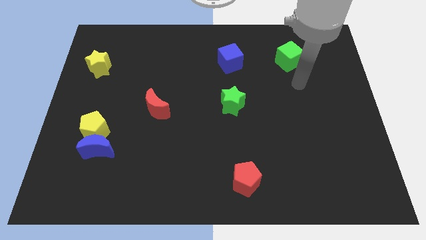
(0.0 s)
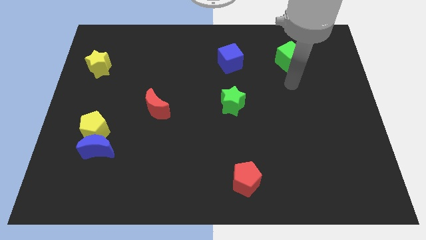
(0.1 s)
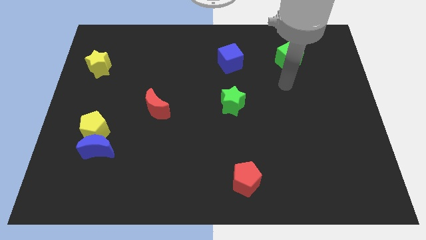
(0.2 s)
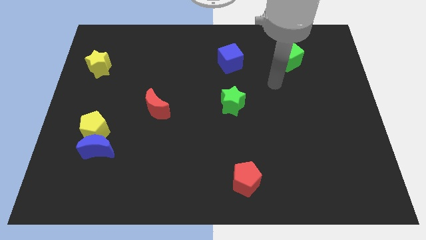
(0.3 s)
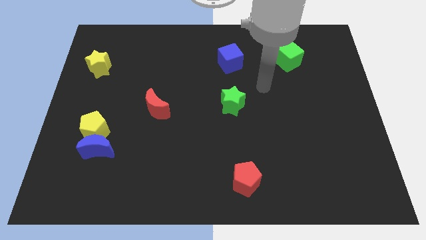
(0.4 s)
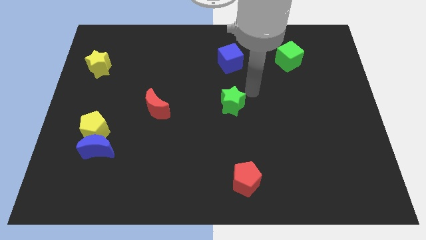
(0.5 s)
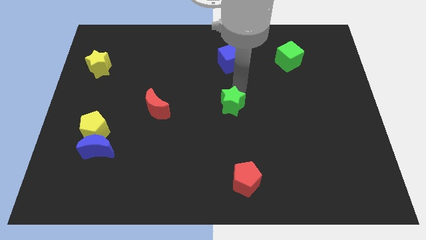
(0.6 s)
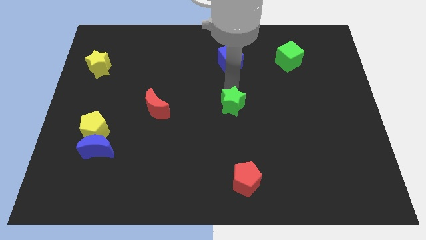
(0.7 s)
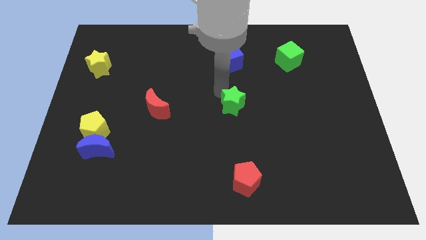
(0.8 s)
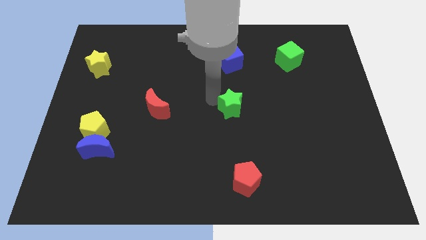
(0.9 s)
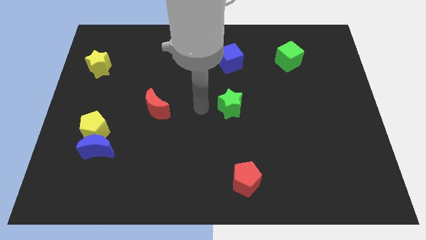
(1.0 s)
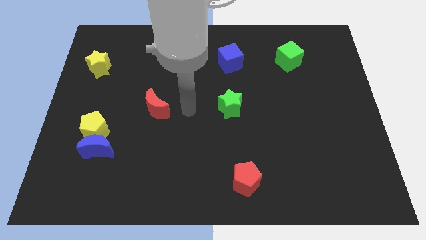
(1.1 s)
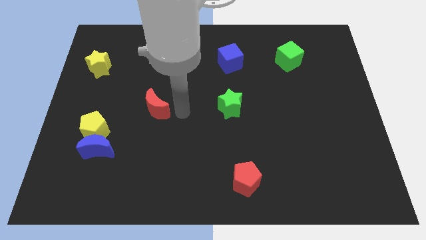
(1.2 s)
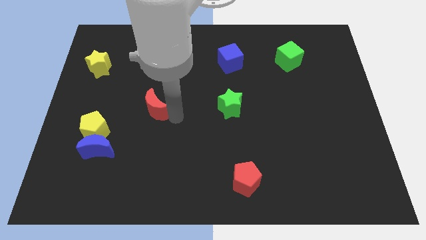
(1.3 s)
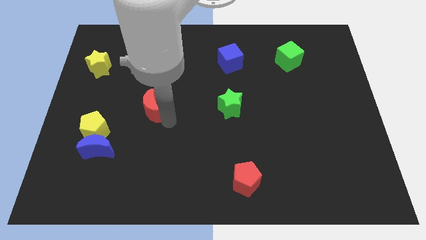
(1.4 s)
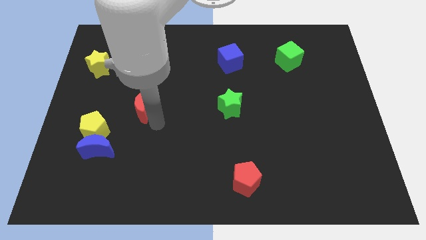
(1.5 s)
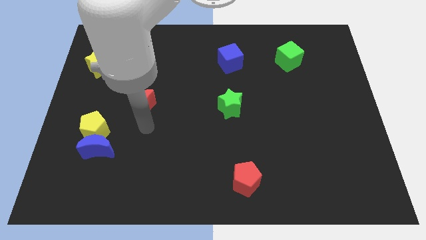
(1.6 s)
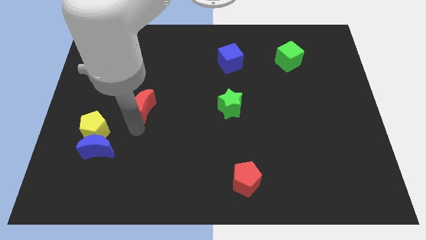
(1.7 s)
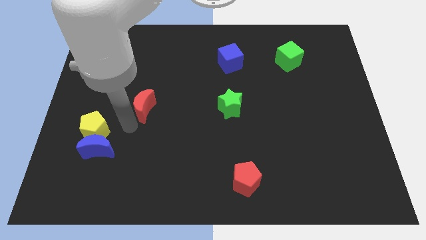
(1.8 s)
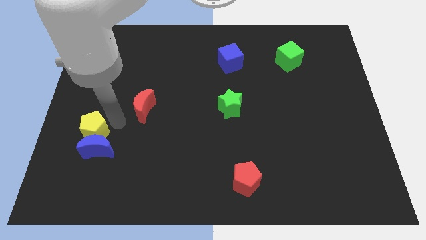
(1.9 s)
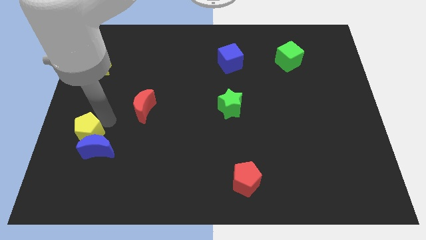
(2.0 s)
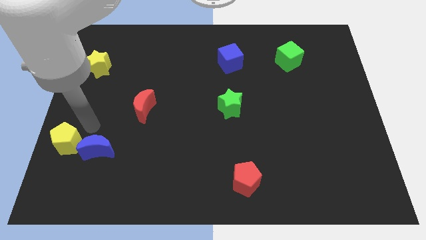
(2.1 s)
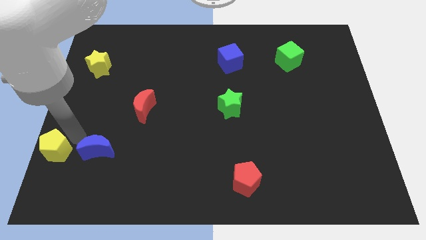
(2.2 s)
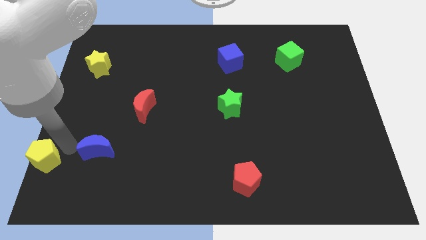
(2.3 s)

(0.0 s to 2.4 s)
pull the blue moon apart from the yellow pentagon

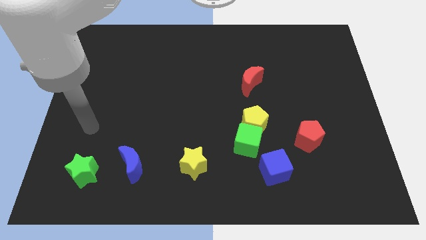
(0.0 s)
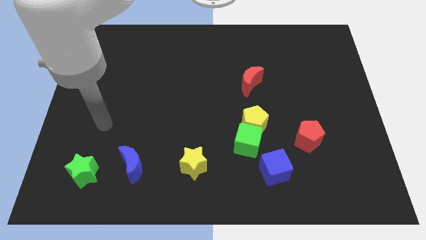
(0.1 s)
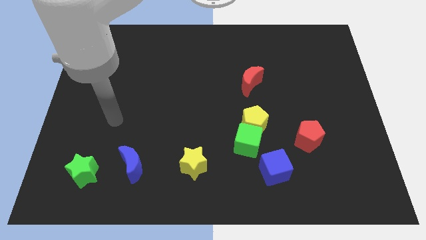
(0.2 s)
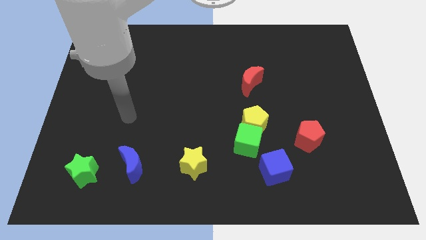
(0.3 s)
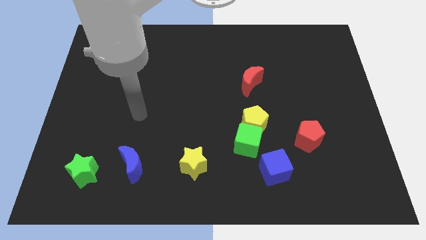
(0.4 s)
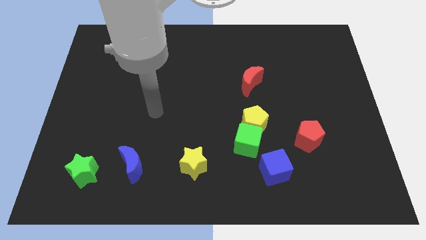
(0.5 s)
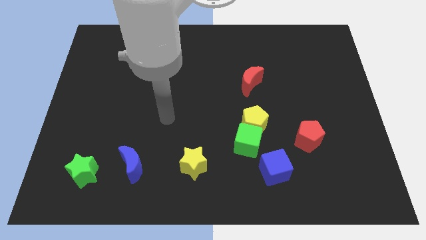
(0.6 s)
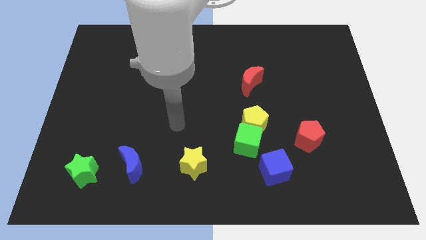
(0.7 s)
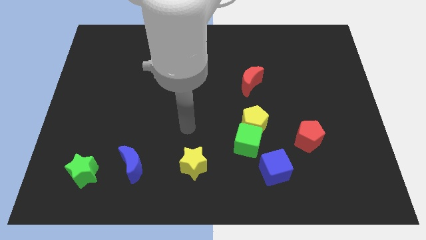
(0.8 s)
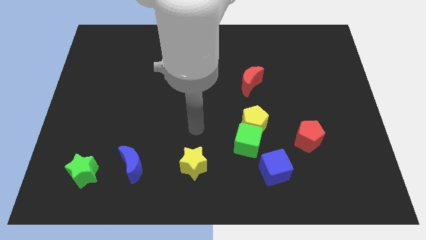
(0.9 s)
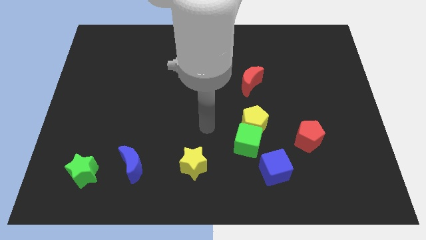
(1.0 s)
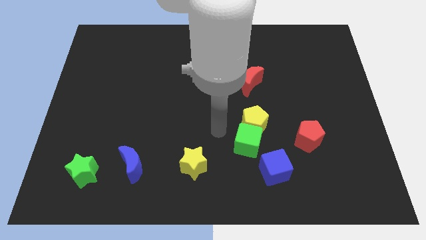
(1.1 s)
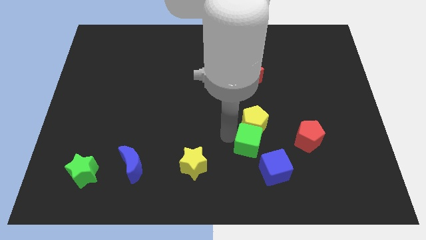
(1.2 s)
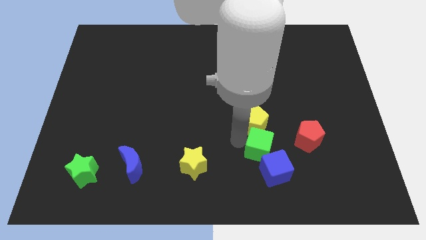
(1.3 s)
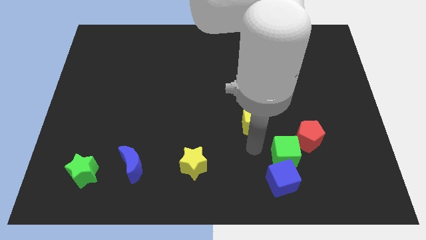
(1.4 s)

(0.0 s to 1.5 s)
pull the yellow pentagon apart from the green cube

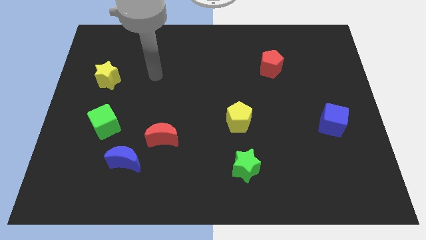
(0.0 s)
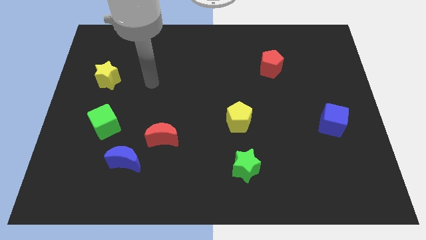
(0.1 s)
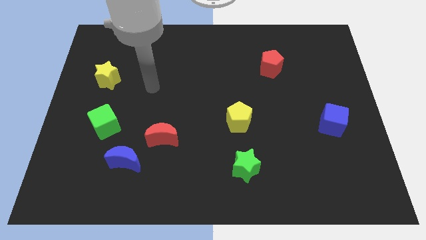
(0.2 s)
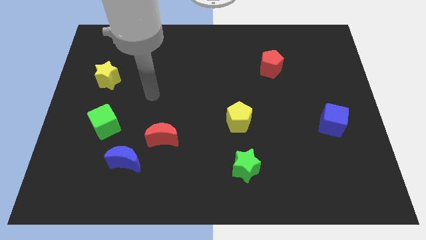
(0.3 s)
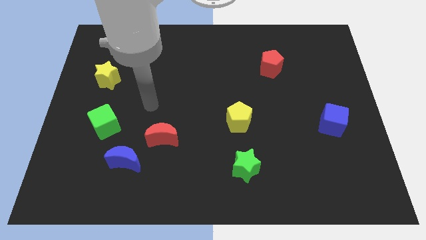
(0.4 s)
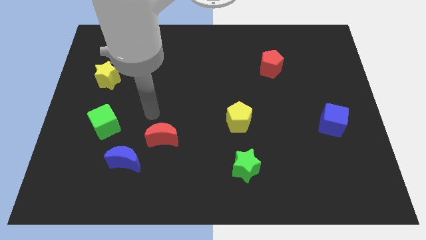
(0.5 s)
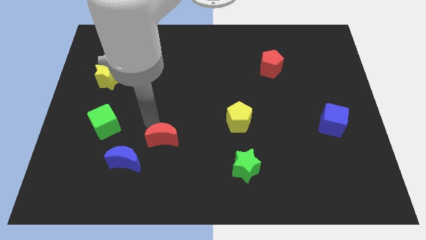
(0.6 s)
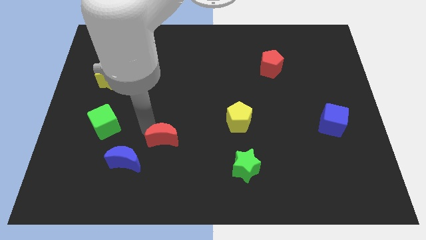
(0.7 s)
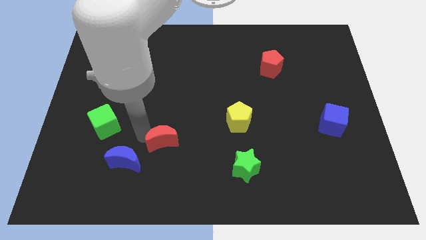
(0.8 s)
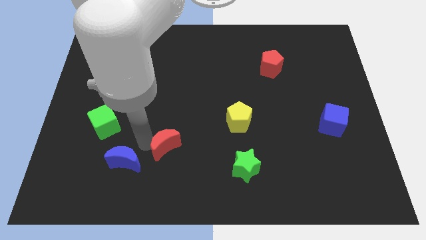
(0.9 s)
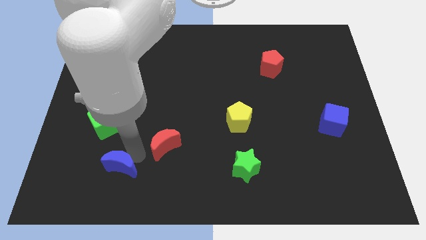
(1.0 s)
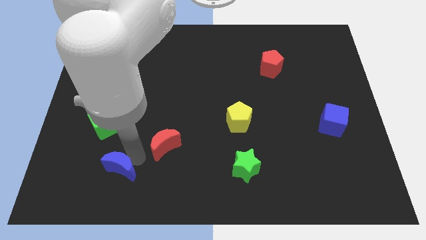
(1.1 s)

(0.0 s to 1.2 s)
move the red moon away from the blue moon

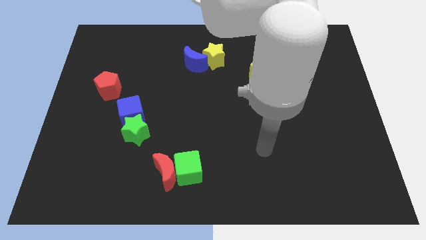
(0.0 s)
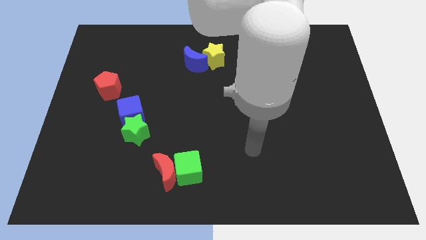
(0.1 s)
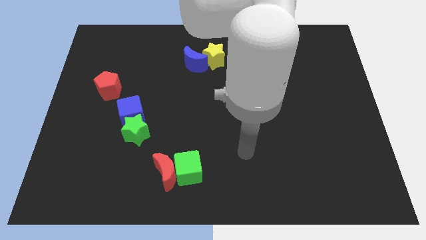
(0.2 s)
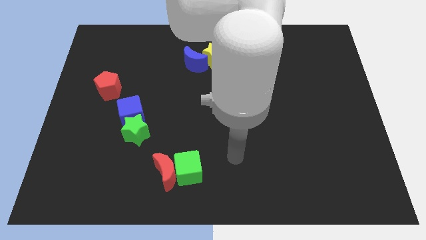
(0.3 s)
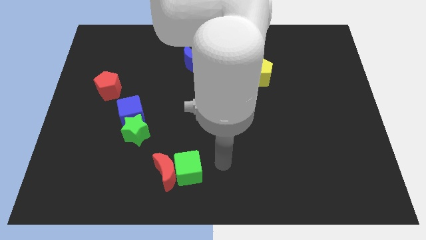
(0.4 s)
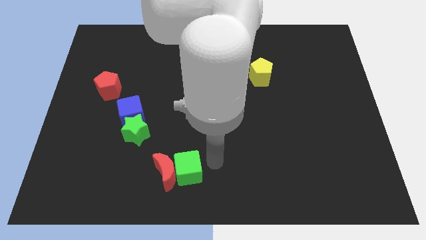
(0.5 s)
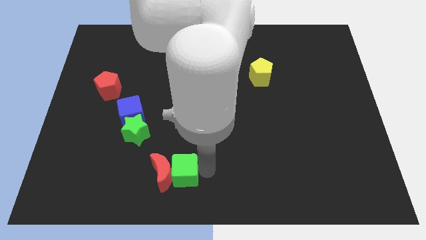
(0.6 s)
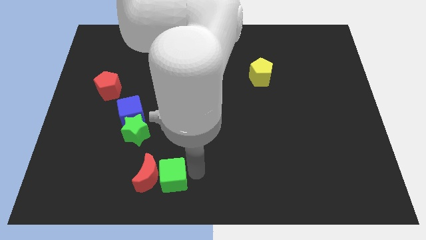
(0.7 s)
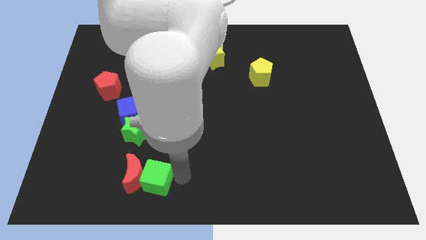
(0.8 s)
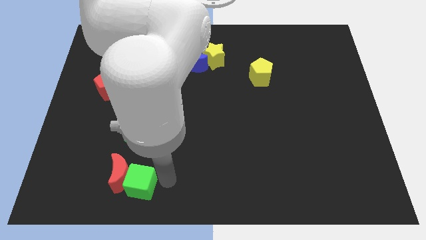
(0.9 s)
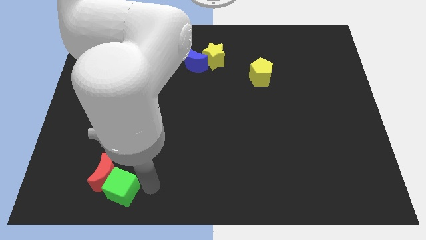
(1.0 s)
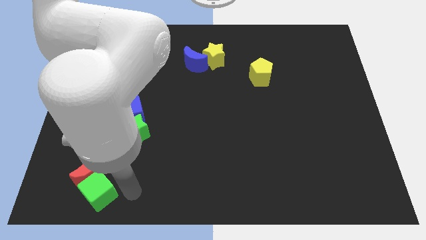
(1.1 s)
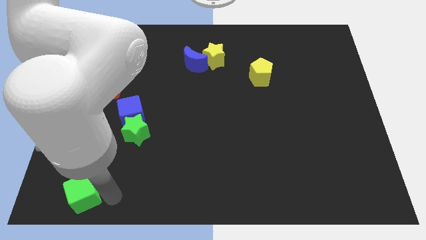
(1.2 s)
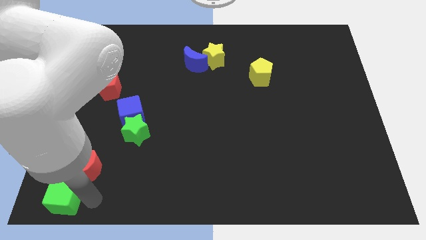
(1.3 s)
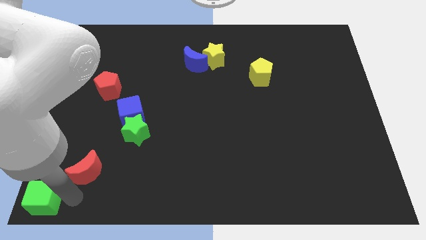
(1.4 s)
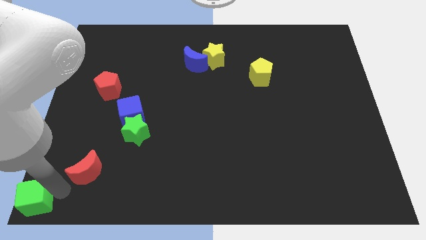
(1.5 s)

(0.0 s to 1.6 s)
separate the red moon from the green cube

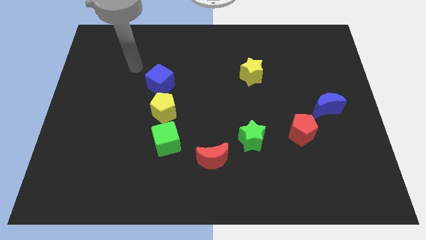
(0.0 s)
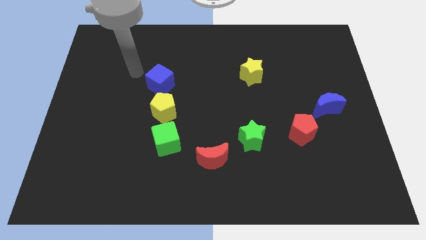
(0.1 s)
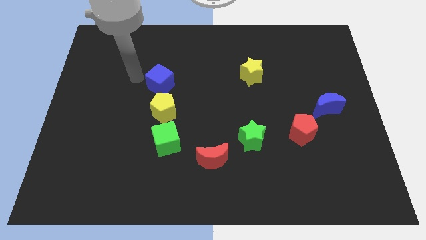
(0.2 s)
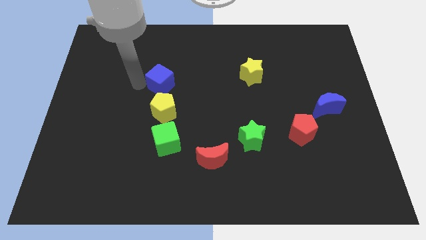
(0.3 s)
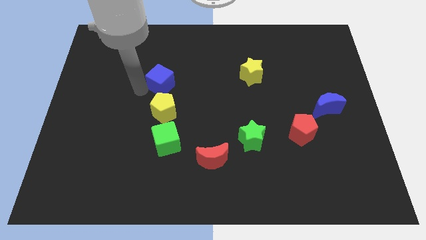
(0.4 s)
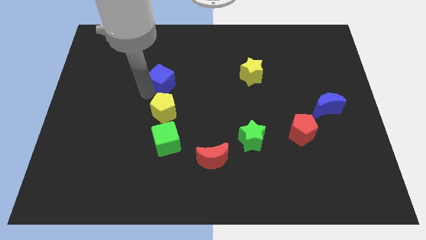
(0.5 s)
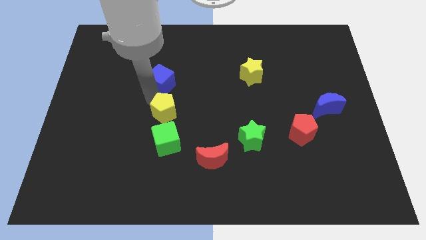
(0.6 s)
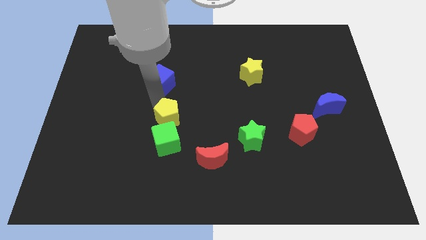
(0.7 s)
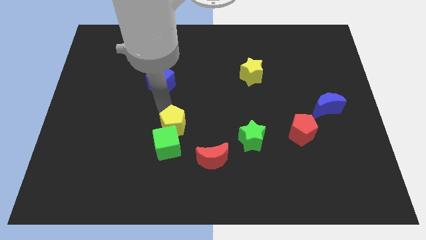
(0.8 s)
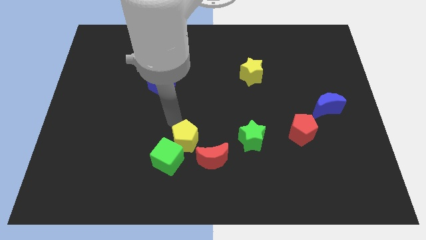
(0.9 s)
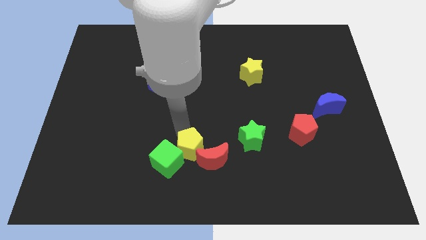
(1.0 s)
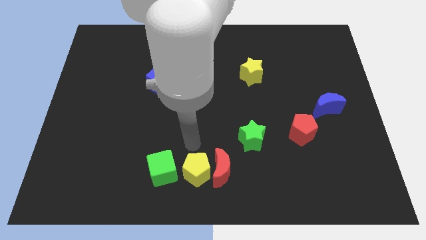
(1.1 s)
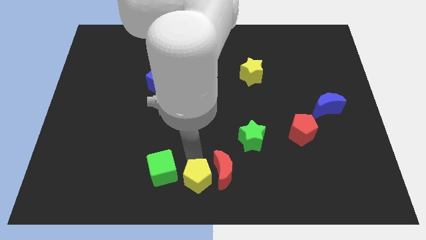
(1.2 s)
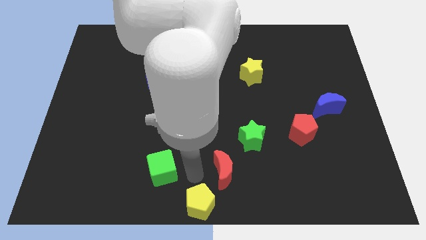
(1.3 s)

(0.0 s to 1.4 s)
separate the green cube from the yellow pentagon

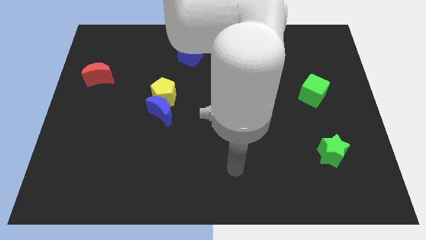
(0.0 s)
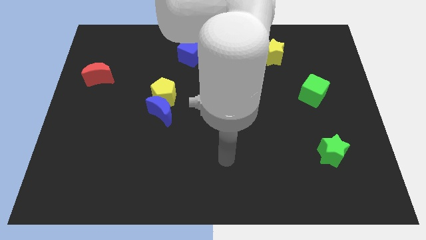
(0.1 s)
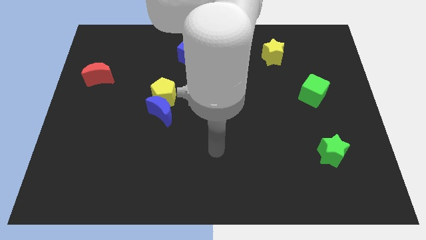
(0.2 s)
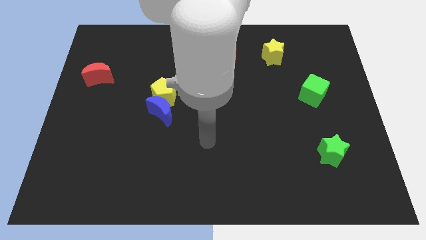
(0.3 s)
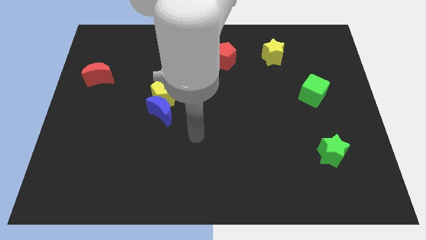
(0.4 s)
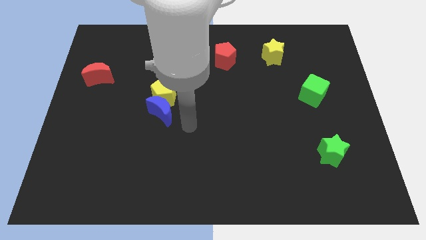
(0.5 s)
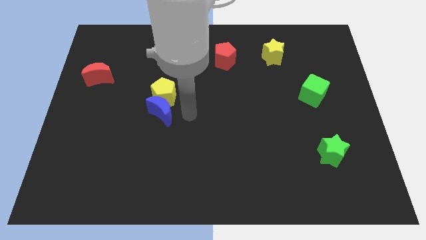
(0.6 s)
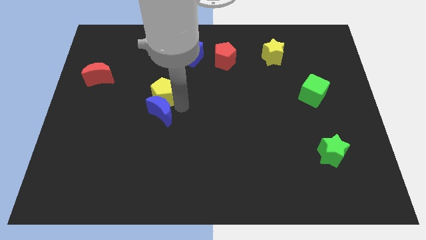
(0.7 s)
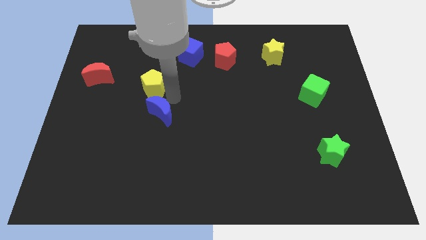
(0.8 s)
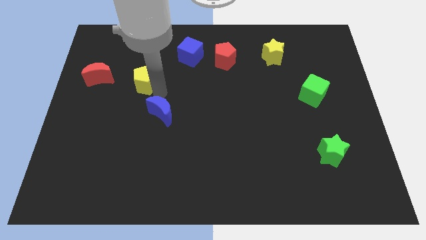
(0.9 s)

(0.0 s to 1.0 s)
separate the blue moon from the yellow pentagon

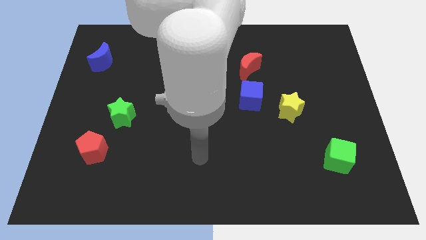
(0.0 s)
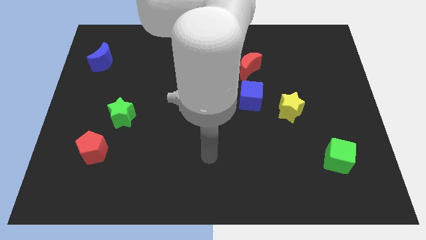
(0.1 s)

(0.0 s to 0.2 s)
pull the yellow star apart from the blue cube
